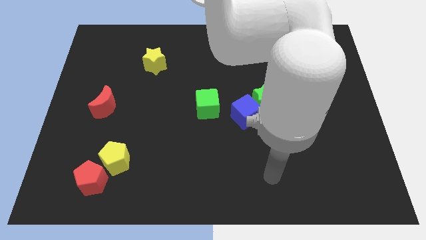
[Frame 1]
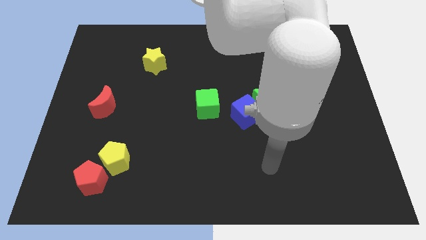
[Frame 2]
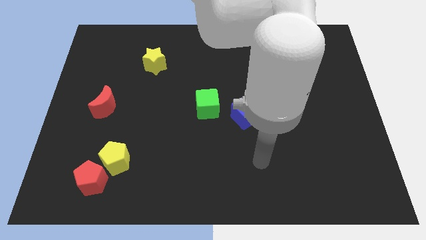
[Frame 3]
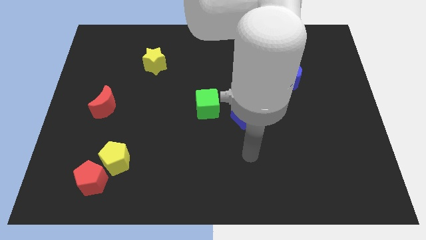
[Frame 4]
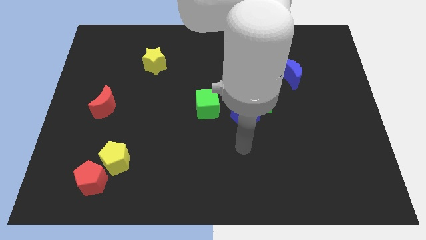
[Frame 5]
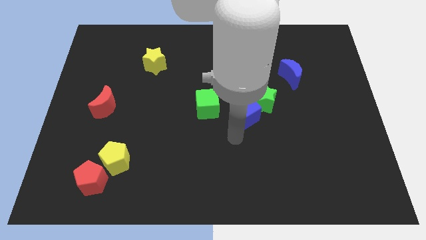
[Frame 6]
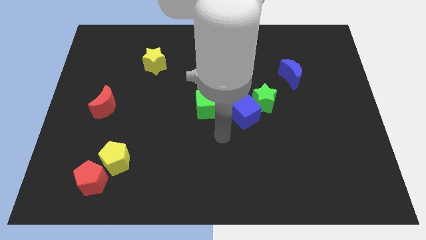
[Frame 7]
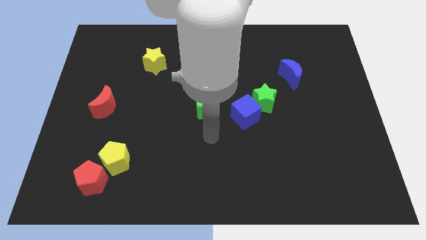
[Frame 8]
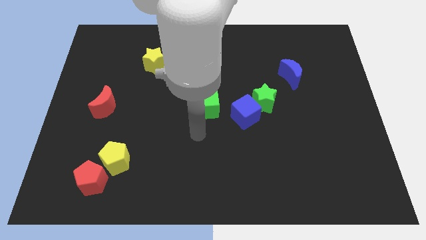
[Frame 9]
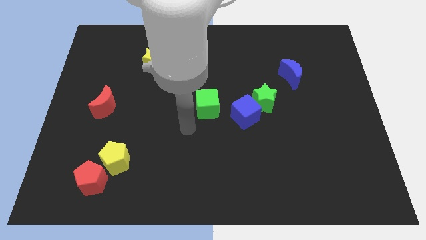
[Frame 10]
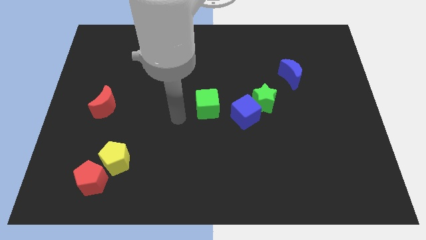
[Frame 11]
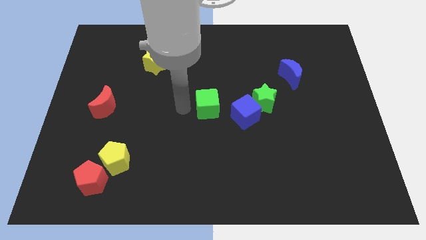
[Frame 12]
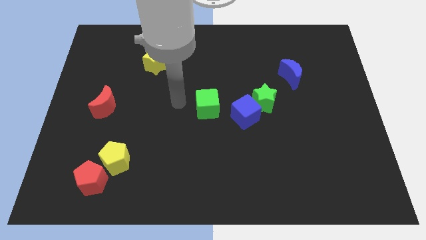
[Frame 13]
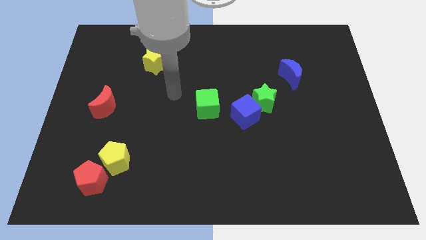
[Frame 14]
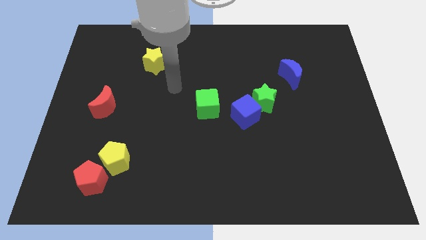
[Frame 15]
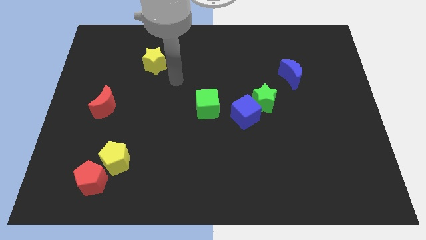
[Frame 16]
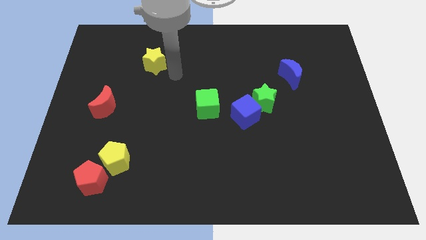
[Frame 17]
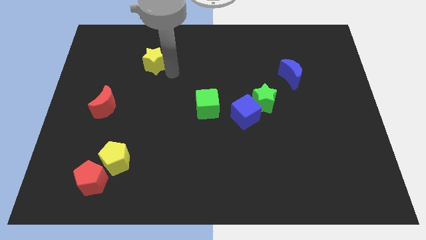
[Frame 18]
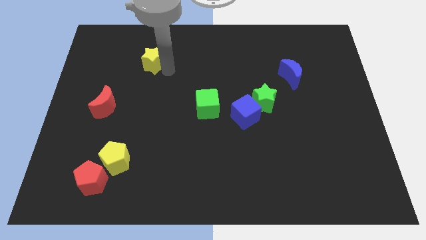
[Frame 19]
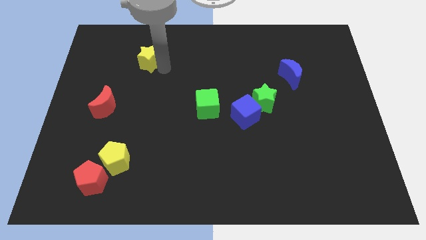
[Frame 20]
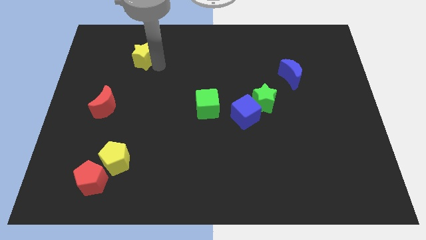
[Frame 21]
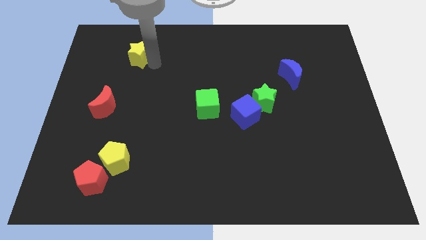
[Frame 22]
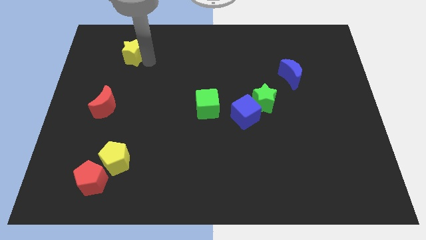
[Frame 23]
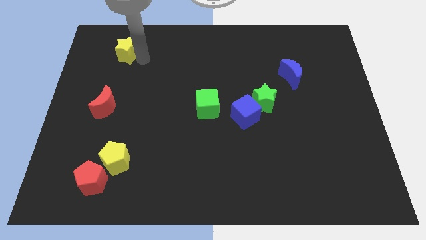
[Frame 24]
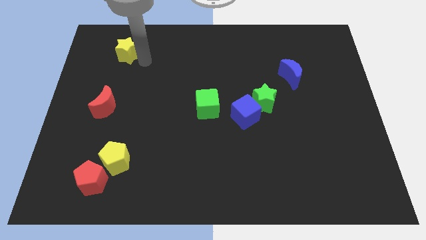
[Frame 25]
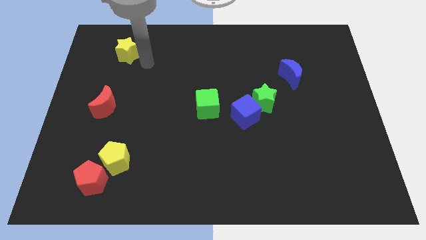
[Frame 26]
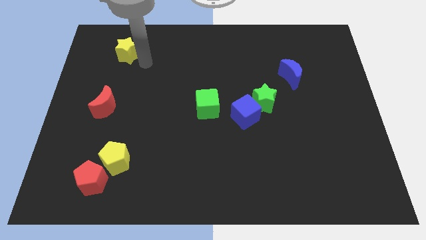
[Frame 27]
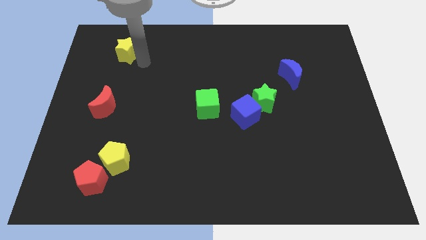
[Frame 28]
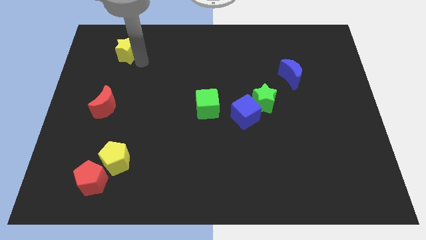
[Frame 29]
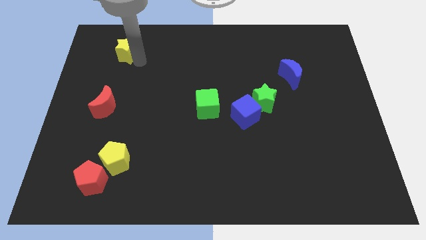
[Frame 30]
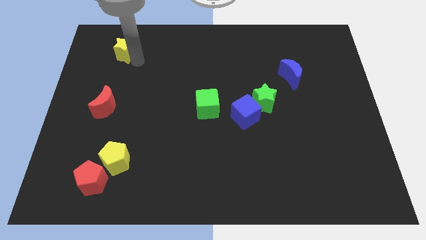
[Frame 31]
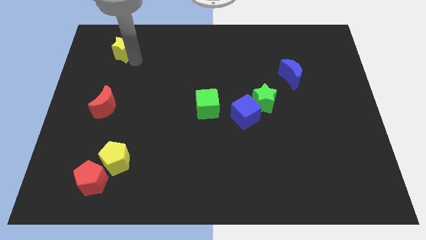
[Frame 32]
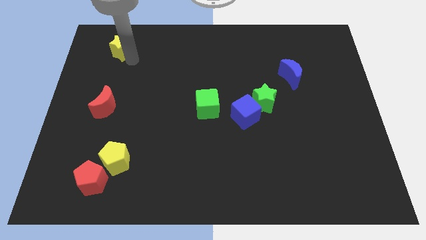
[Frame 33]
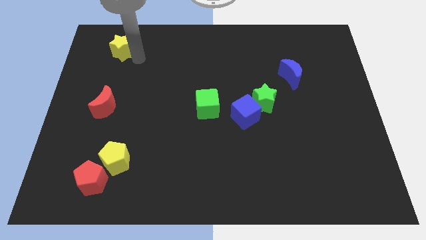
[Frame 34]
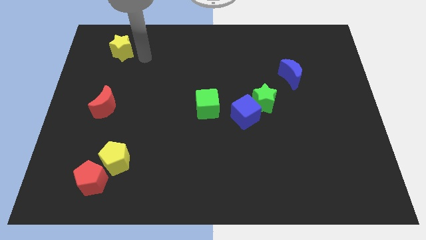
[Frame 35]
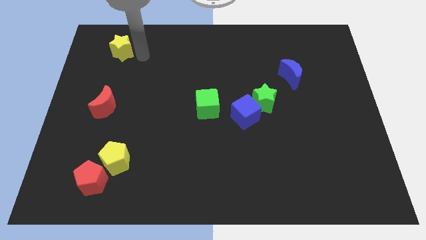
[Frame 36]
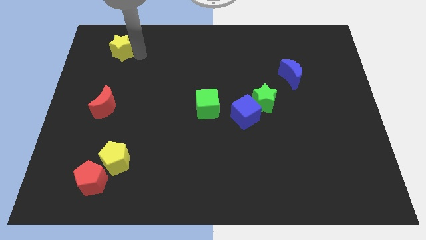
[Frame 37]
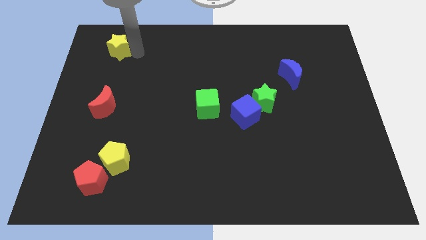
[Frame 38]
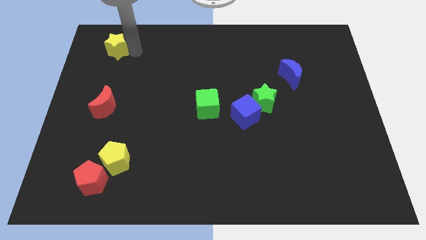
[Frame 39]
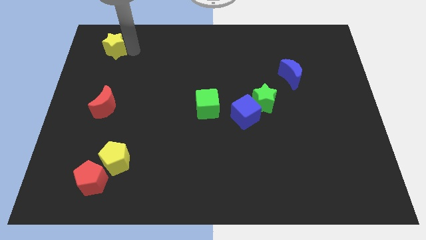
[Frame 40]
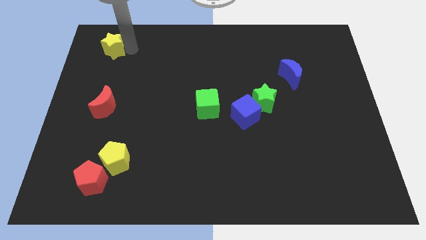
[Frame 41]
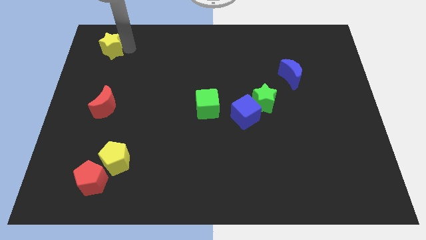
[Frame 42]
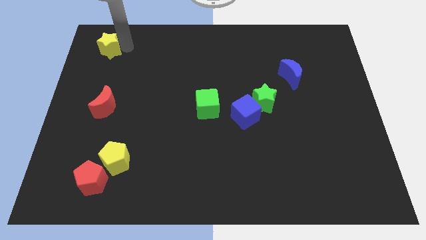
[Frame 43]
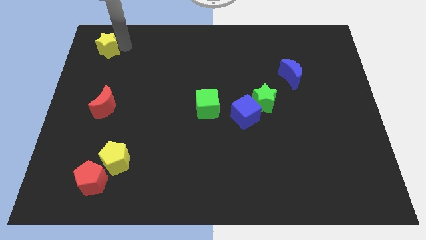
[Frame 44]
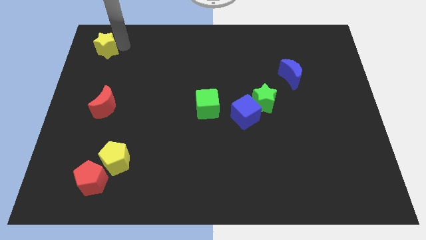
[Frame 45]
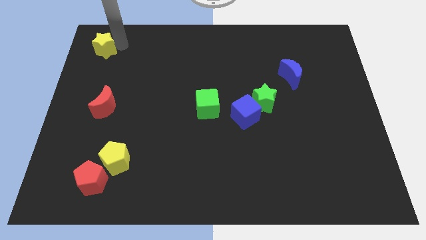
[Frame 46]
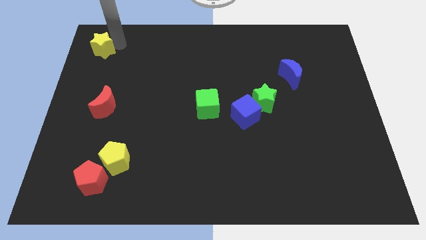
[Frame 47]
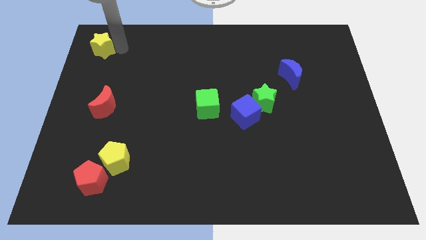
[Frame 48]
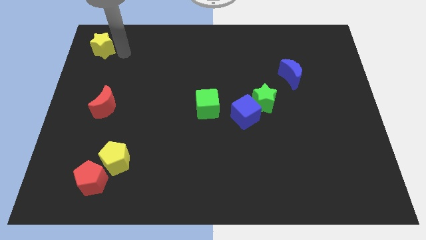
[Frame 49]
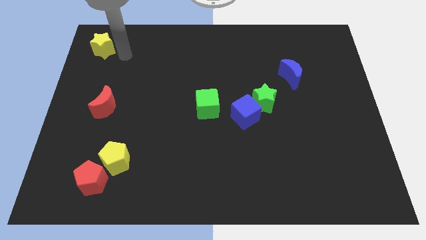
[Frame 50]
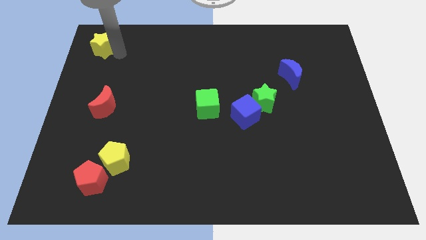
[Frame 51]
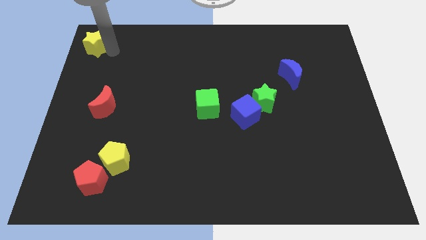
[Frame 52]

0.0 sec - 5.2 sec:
move the yellow star to the top left

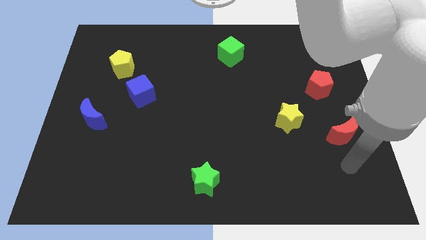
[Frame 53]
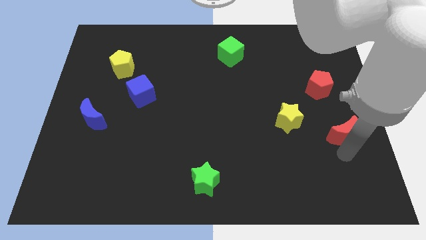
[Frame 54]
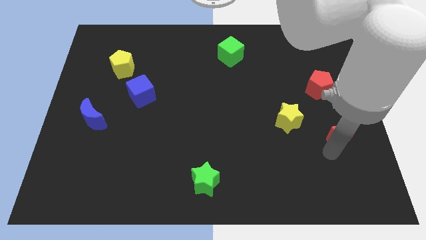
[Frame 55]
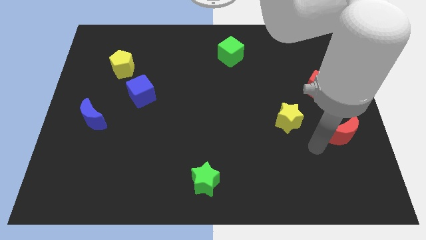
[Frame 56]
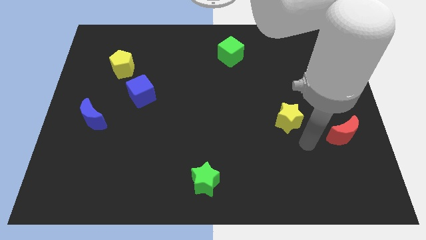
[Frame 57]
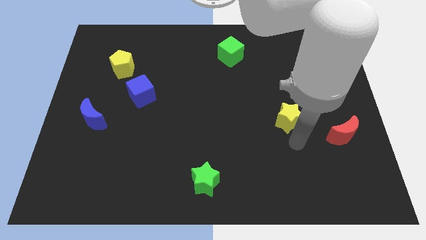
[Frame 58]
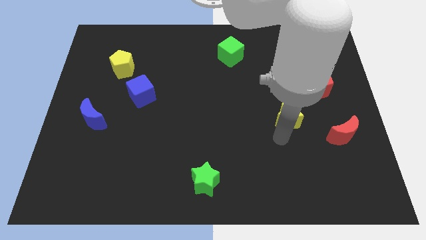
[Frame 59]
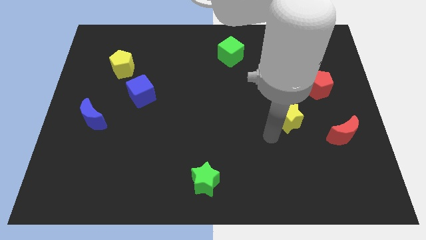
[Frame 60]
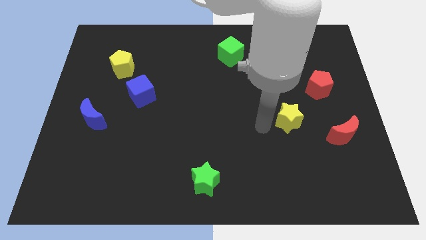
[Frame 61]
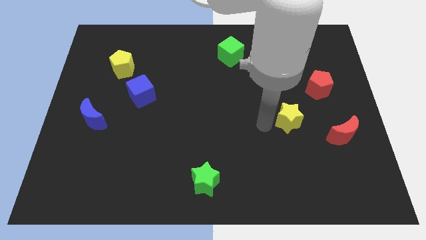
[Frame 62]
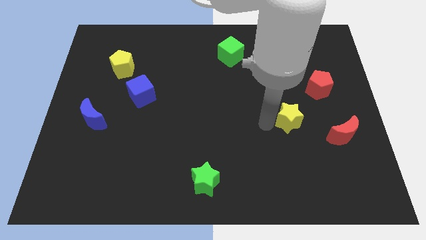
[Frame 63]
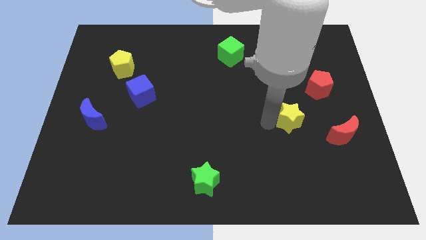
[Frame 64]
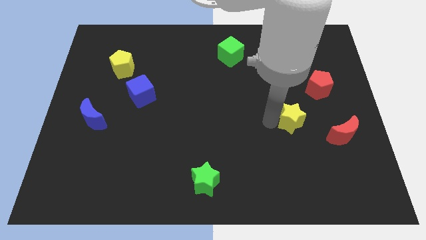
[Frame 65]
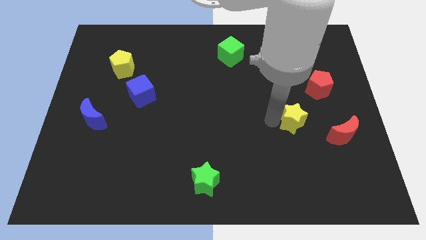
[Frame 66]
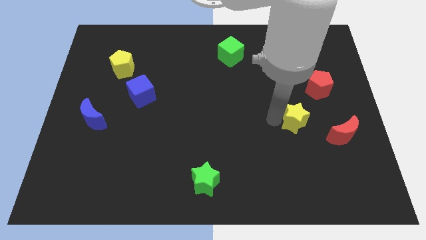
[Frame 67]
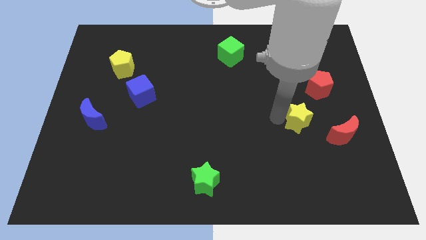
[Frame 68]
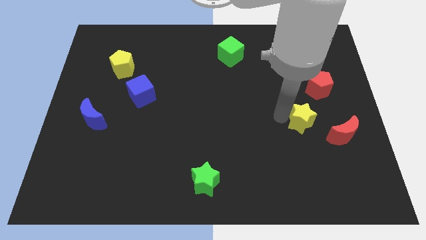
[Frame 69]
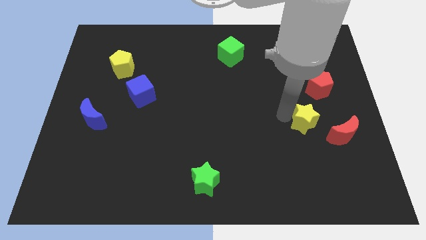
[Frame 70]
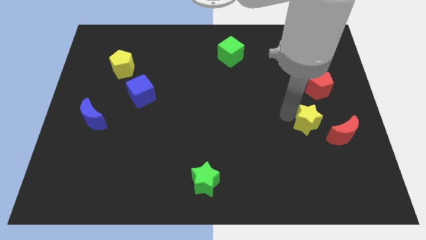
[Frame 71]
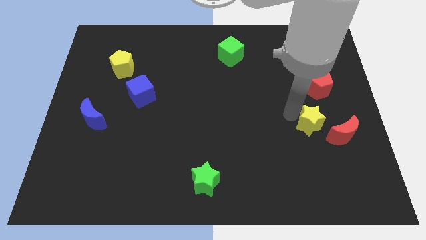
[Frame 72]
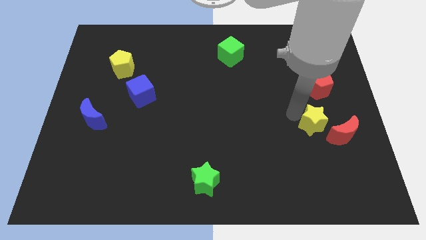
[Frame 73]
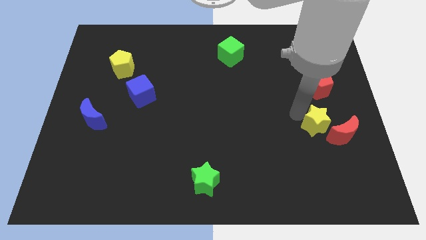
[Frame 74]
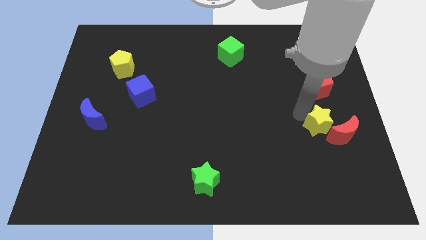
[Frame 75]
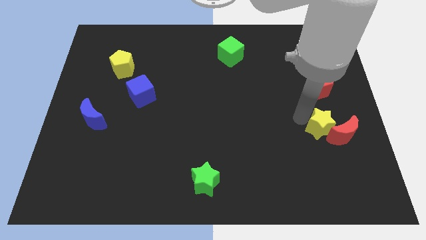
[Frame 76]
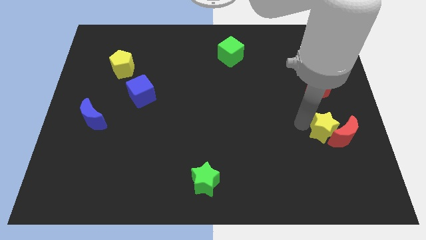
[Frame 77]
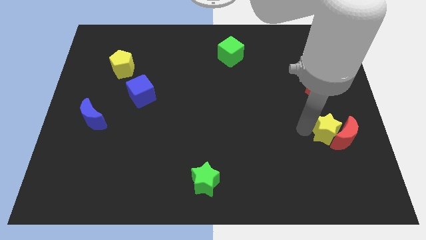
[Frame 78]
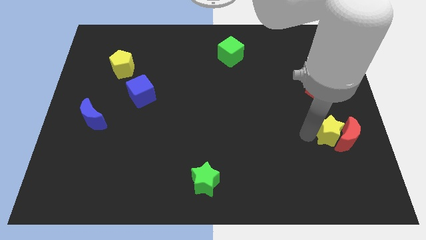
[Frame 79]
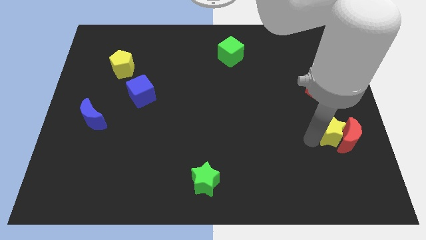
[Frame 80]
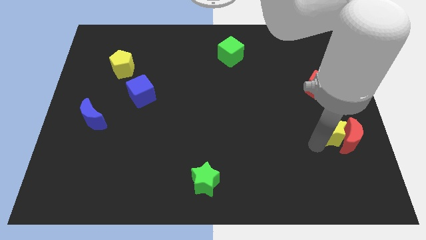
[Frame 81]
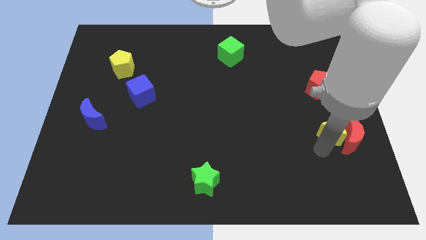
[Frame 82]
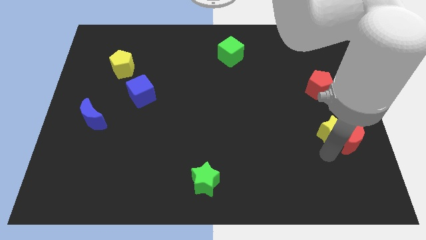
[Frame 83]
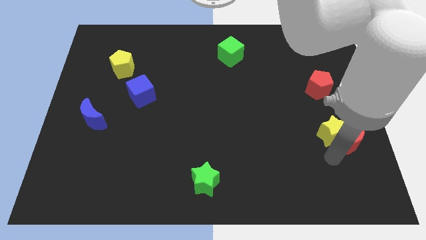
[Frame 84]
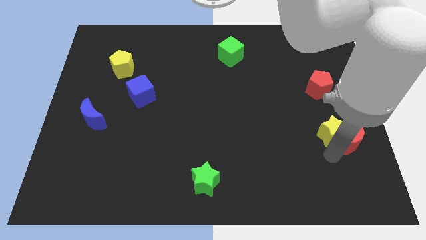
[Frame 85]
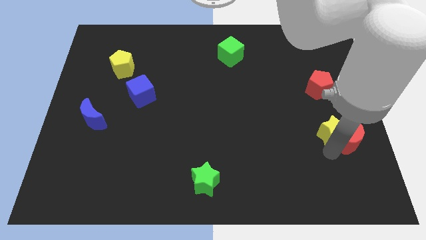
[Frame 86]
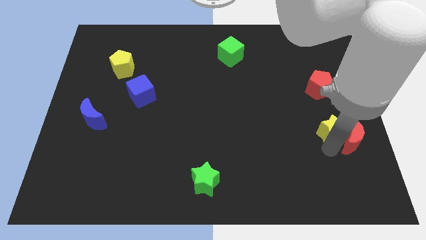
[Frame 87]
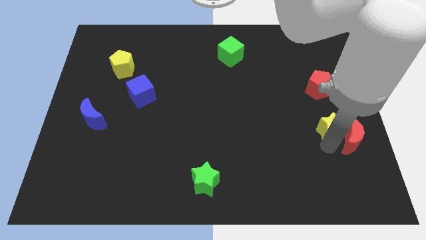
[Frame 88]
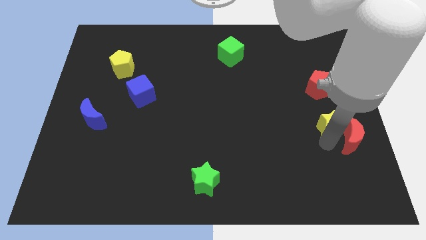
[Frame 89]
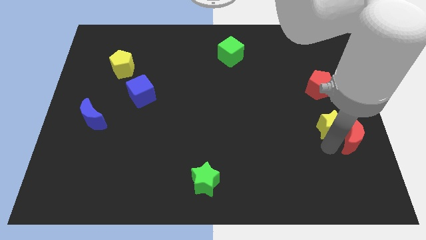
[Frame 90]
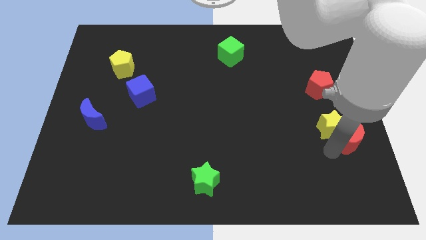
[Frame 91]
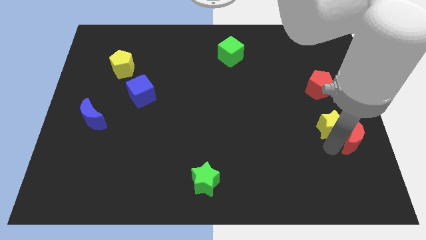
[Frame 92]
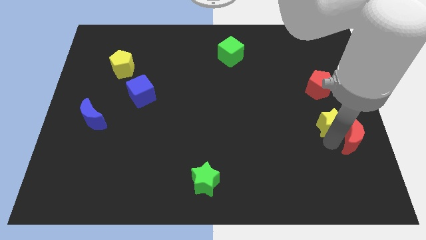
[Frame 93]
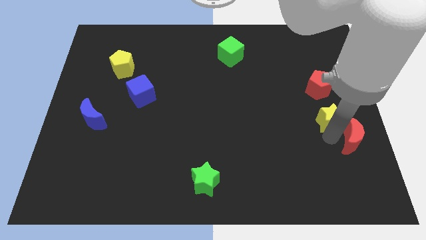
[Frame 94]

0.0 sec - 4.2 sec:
put the yellow star to the right side of the board
